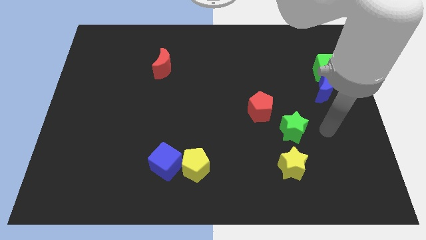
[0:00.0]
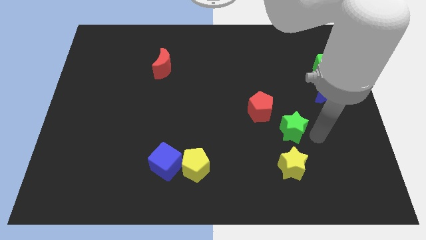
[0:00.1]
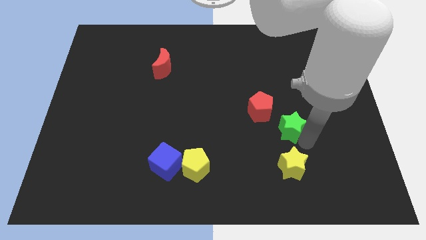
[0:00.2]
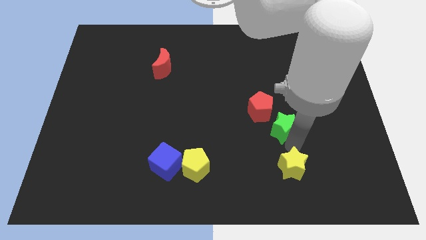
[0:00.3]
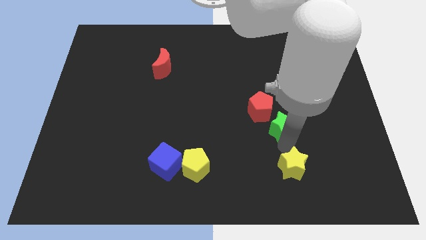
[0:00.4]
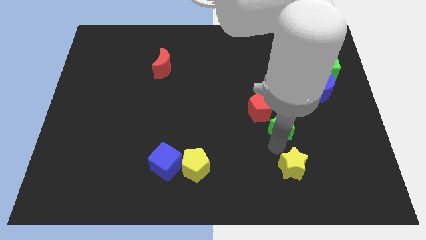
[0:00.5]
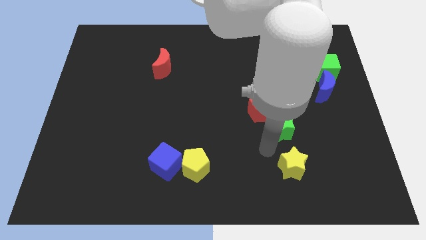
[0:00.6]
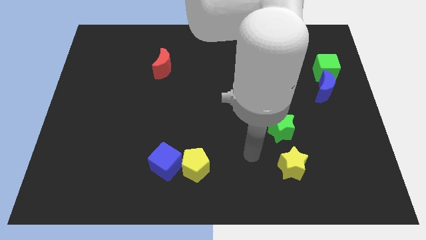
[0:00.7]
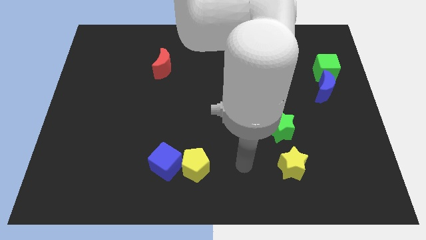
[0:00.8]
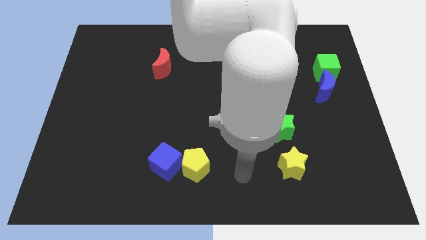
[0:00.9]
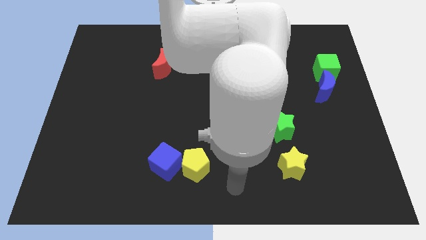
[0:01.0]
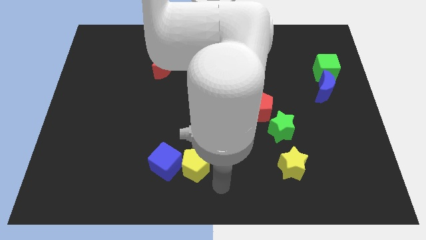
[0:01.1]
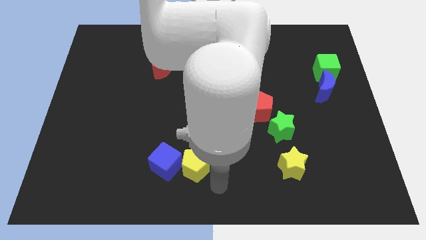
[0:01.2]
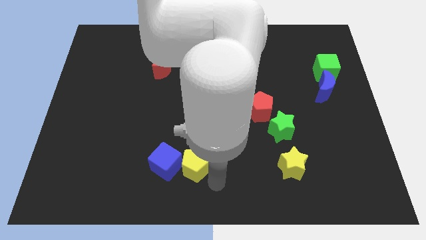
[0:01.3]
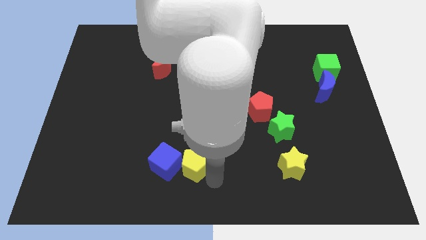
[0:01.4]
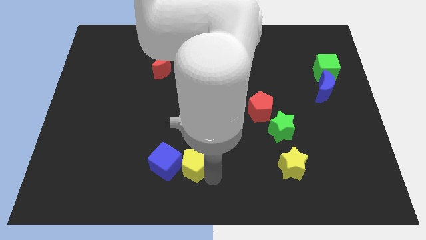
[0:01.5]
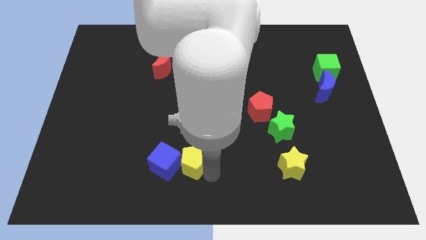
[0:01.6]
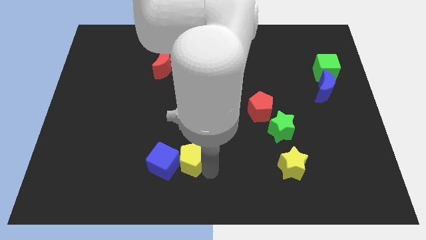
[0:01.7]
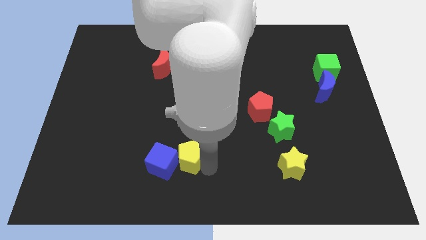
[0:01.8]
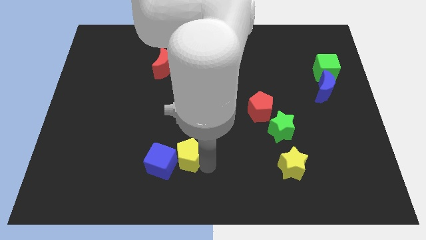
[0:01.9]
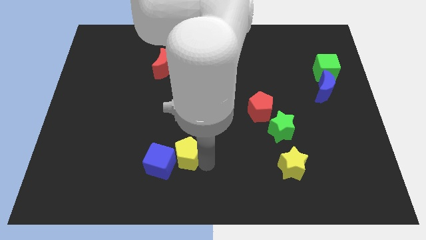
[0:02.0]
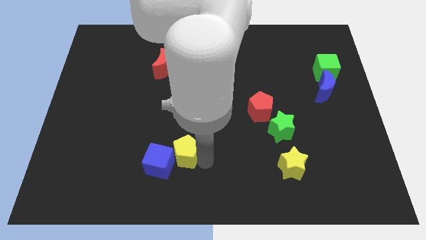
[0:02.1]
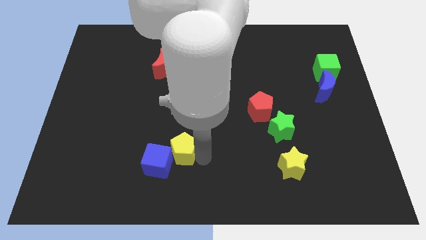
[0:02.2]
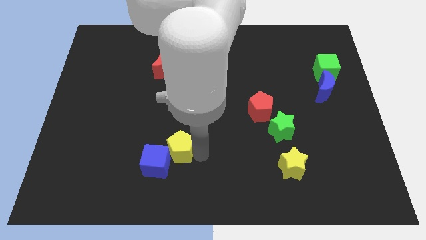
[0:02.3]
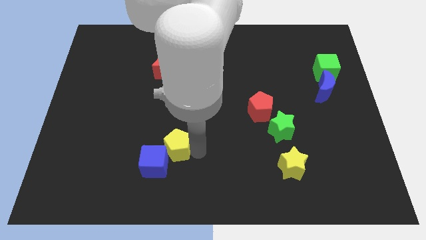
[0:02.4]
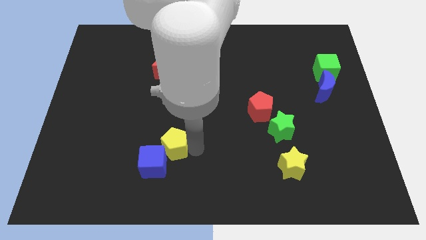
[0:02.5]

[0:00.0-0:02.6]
move the yellow pentagon somewhat upwards and then left

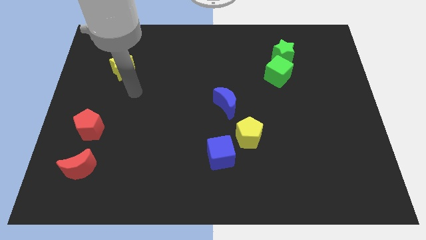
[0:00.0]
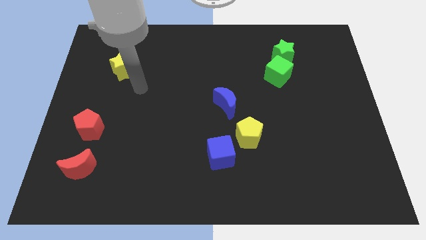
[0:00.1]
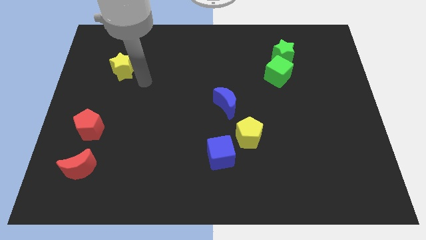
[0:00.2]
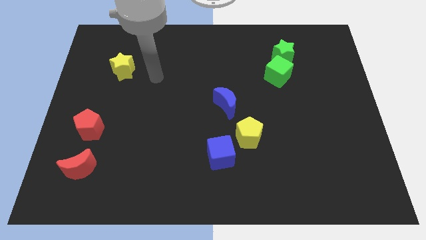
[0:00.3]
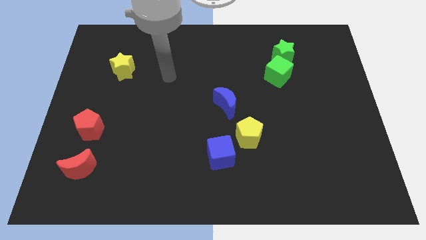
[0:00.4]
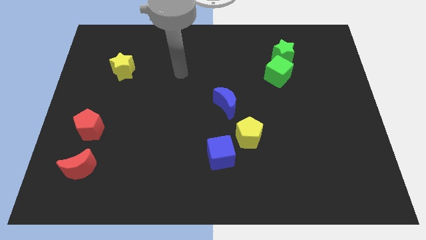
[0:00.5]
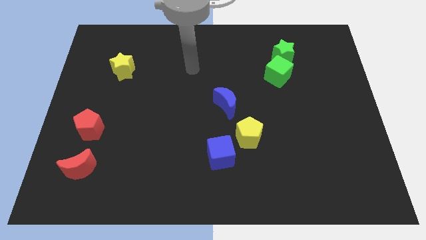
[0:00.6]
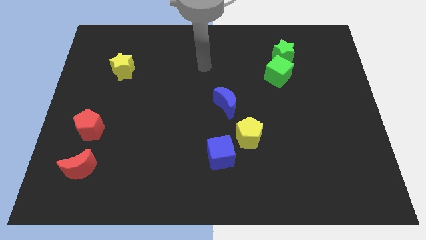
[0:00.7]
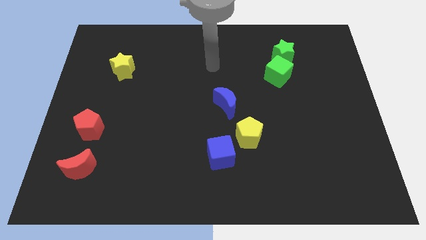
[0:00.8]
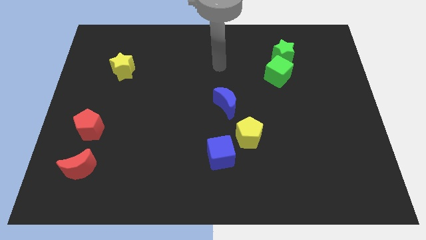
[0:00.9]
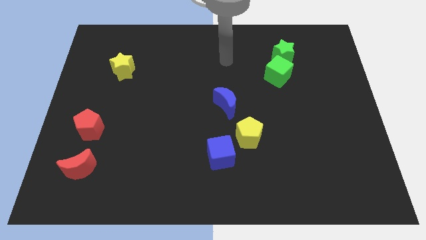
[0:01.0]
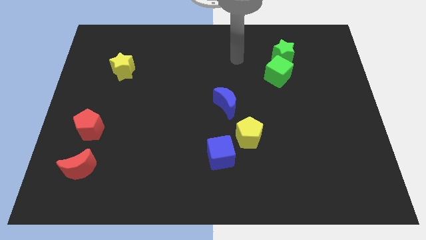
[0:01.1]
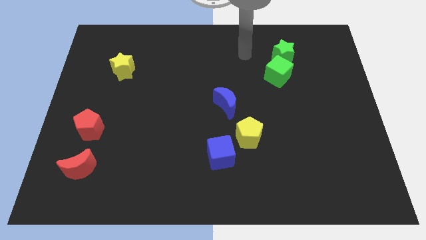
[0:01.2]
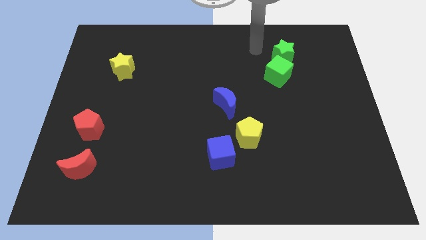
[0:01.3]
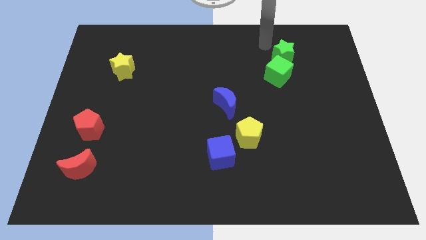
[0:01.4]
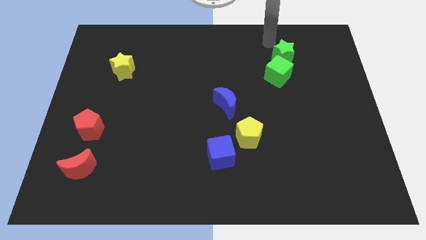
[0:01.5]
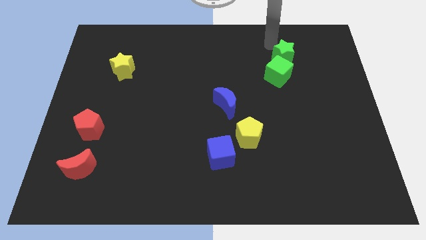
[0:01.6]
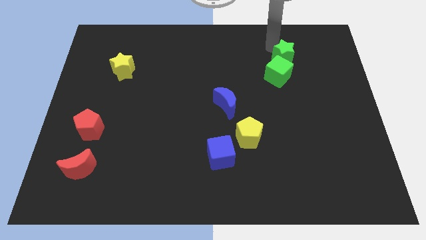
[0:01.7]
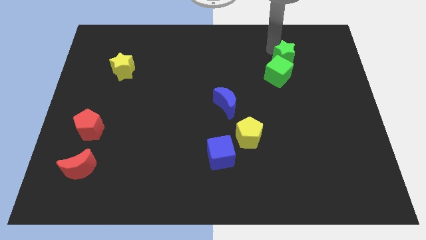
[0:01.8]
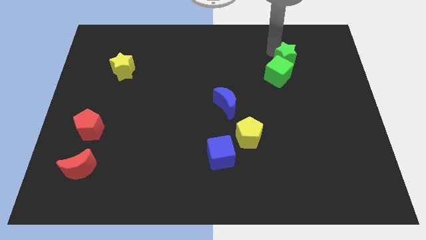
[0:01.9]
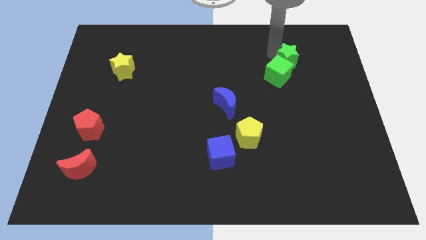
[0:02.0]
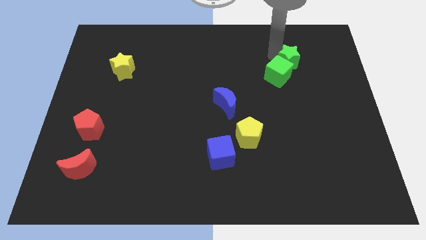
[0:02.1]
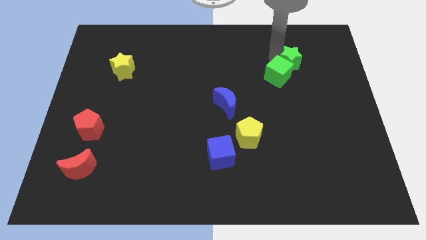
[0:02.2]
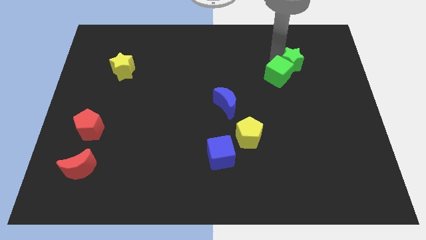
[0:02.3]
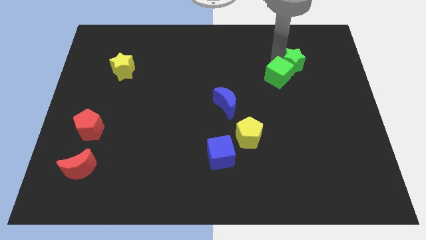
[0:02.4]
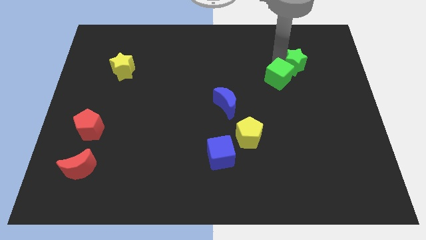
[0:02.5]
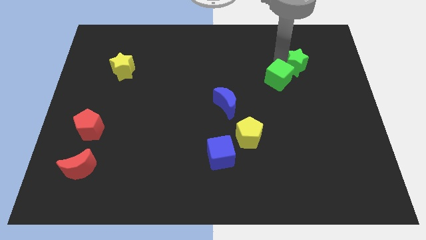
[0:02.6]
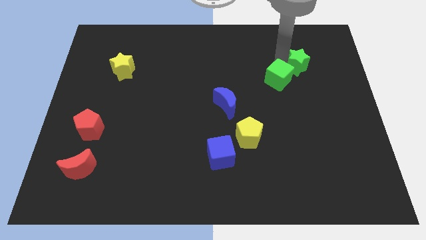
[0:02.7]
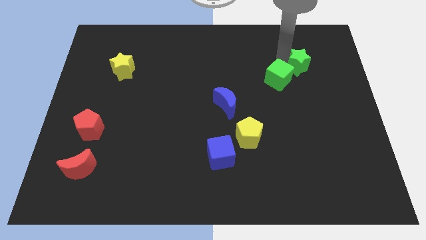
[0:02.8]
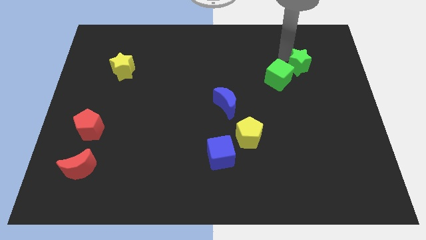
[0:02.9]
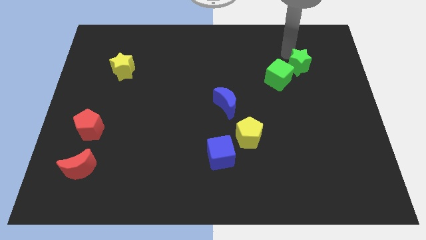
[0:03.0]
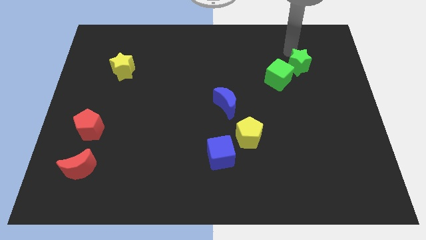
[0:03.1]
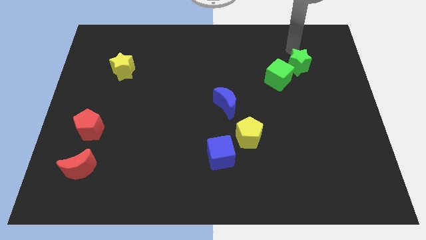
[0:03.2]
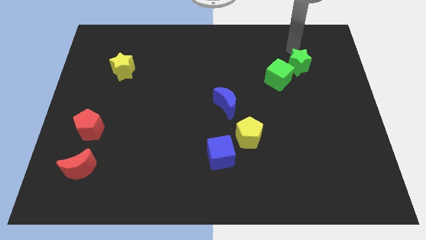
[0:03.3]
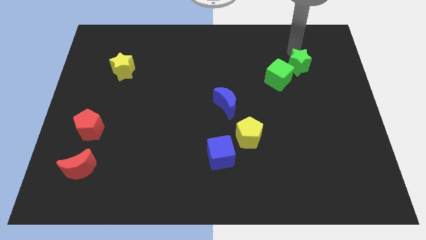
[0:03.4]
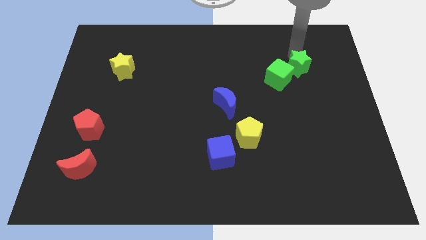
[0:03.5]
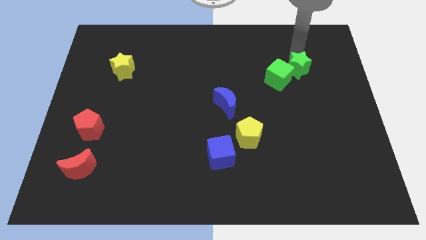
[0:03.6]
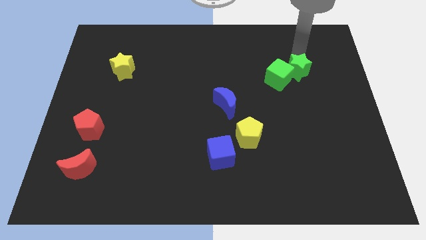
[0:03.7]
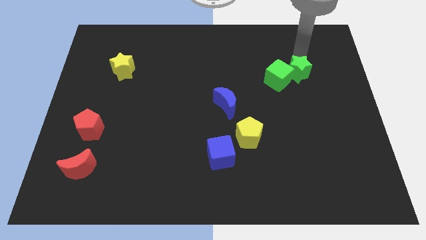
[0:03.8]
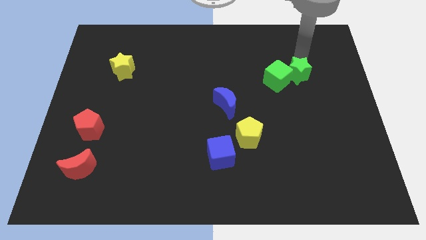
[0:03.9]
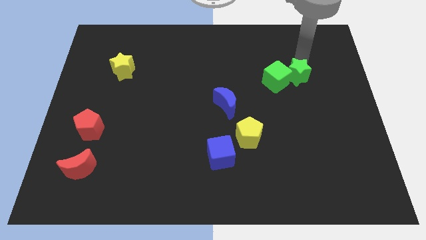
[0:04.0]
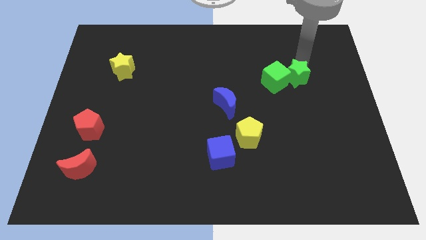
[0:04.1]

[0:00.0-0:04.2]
slide the green star downwards a little

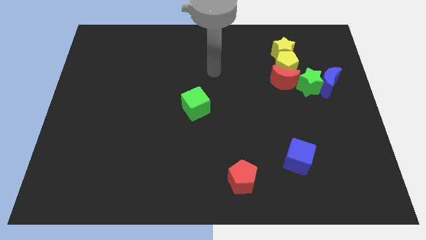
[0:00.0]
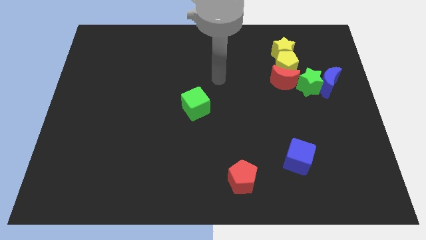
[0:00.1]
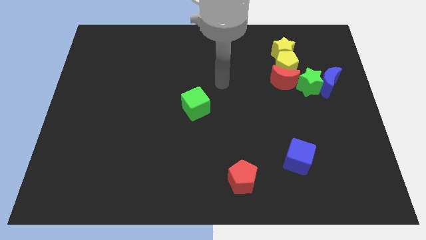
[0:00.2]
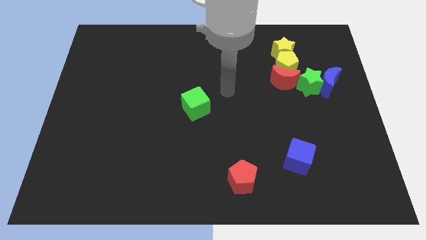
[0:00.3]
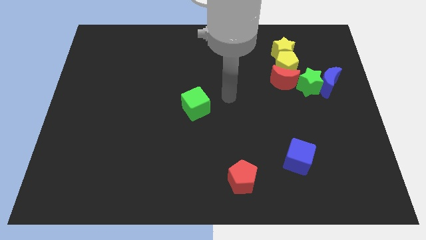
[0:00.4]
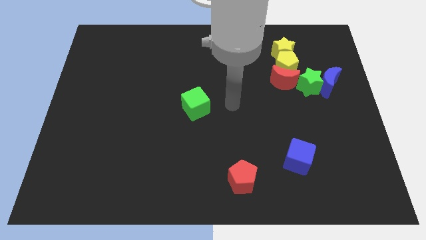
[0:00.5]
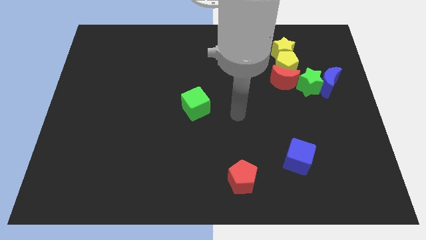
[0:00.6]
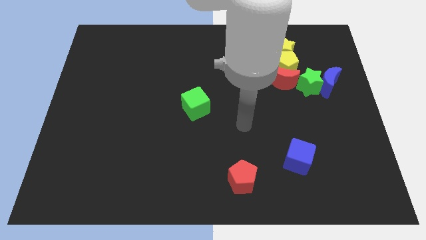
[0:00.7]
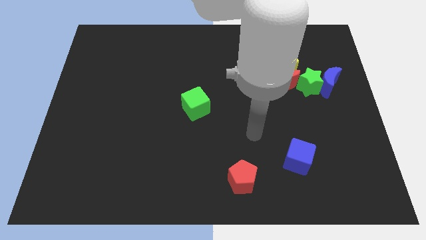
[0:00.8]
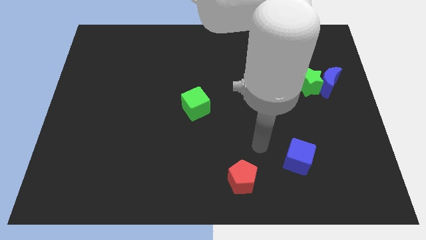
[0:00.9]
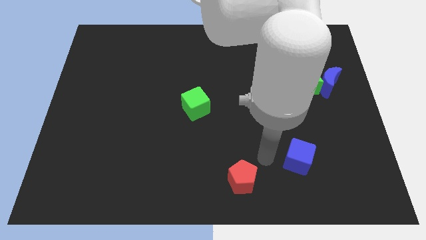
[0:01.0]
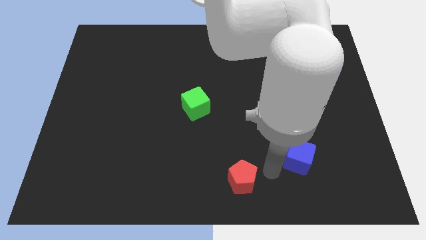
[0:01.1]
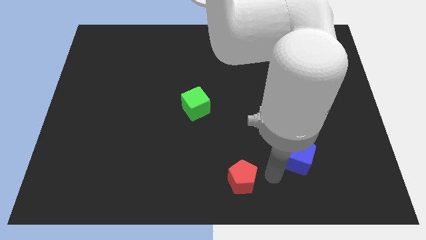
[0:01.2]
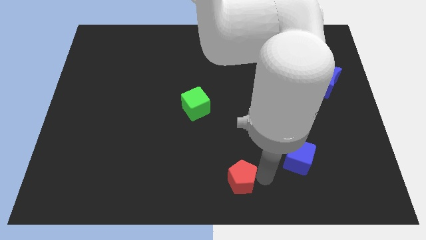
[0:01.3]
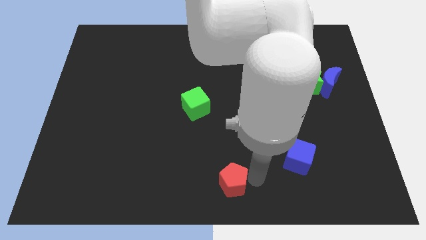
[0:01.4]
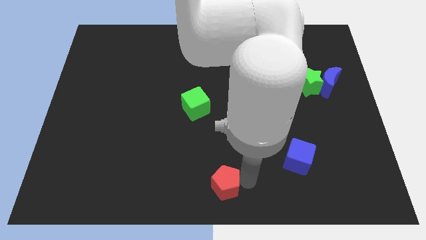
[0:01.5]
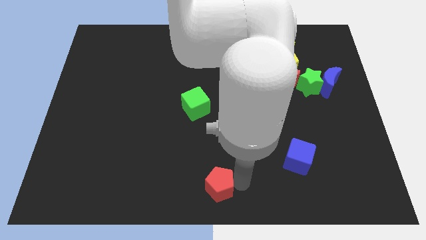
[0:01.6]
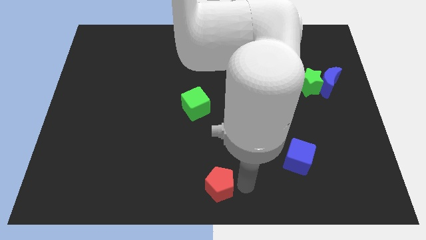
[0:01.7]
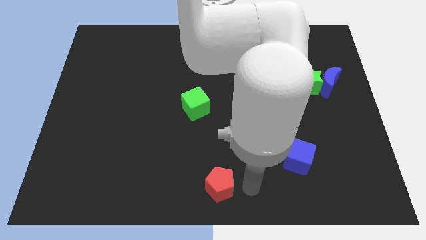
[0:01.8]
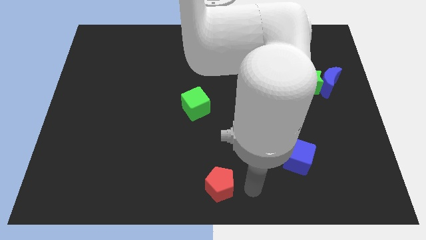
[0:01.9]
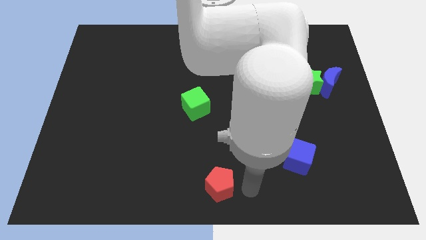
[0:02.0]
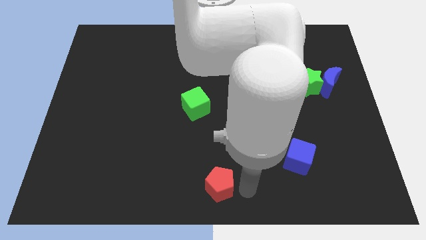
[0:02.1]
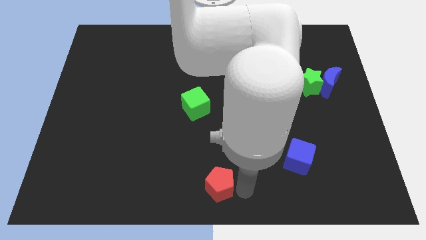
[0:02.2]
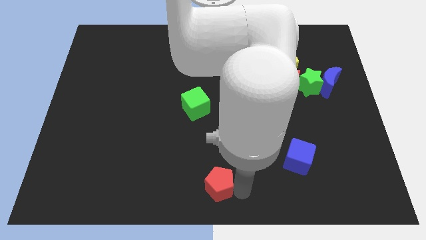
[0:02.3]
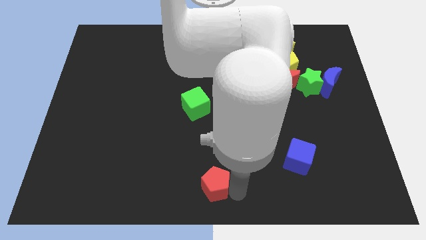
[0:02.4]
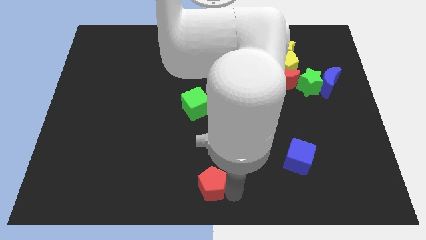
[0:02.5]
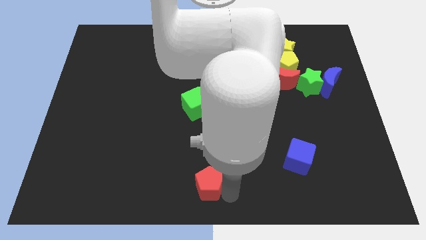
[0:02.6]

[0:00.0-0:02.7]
slightly slide the red pentagon to the left
